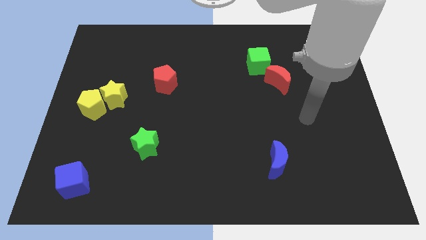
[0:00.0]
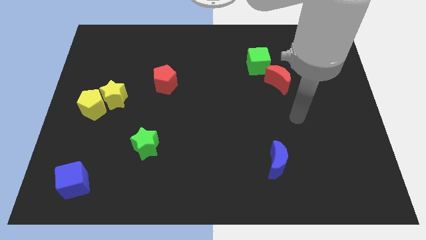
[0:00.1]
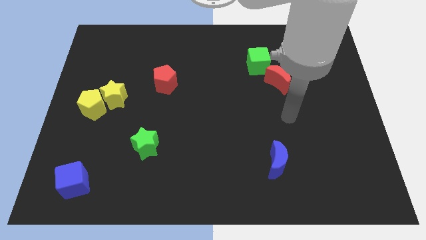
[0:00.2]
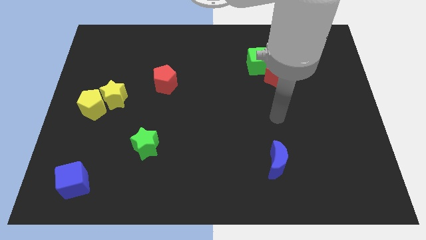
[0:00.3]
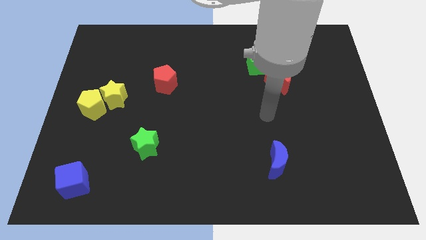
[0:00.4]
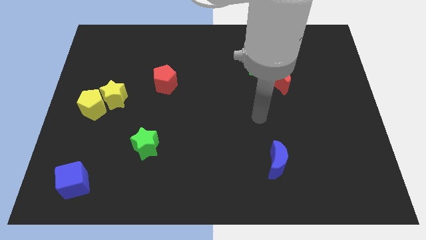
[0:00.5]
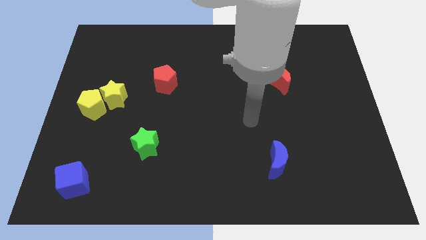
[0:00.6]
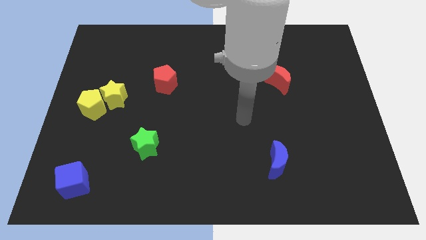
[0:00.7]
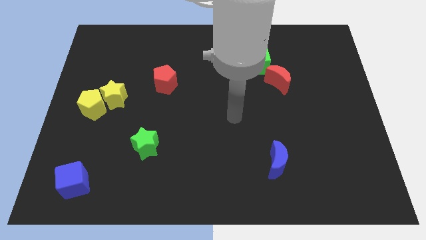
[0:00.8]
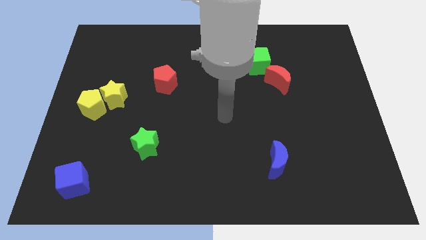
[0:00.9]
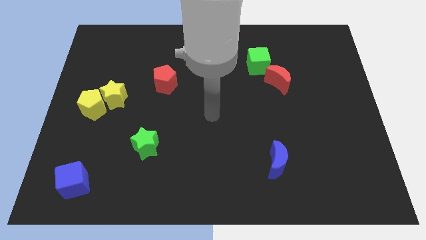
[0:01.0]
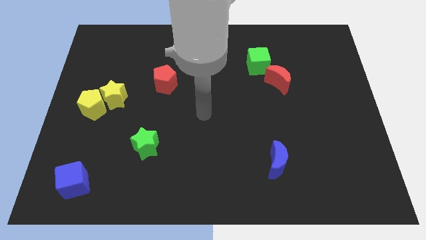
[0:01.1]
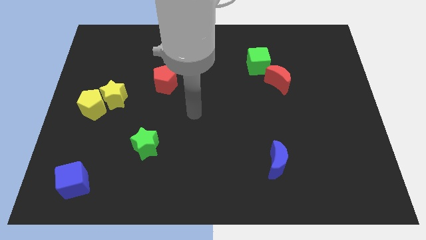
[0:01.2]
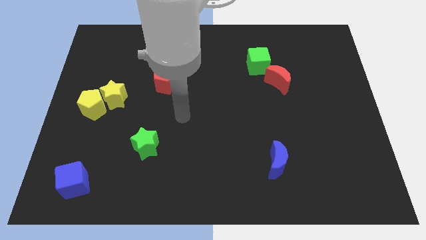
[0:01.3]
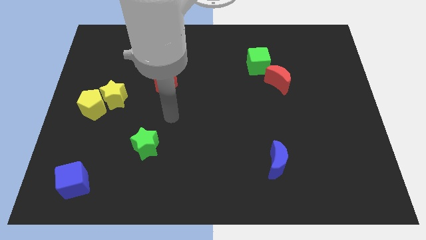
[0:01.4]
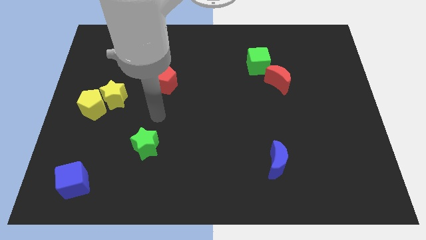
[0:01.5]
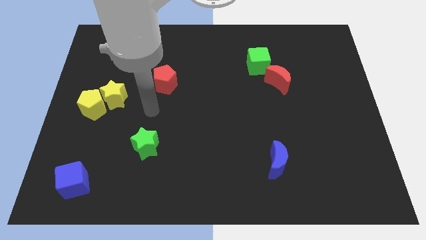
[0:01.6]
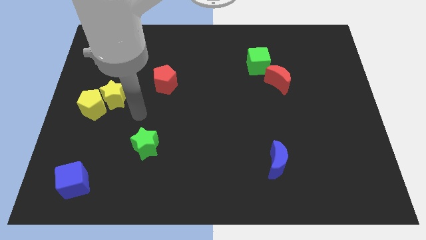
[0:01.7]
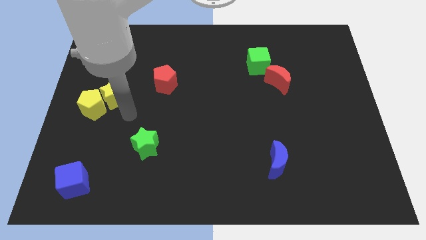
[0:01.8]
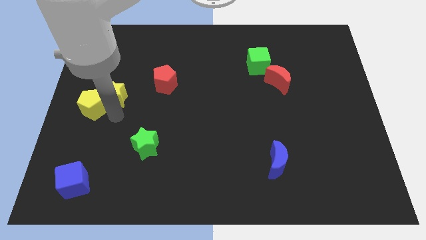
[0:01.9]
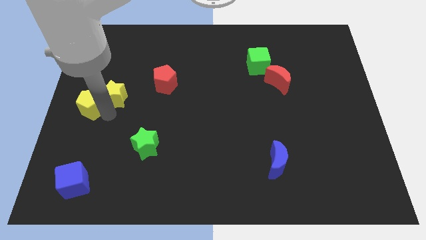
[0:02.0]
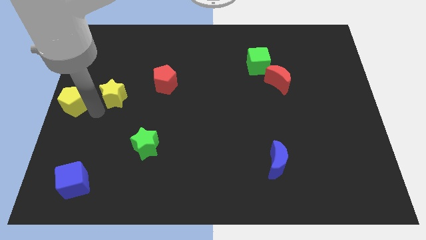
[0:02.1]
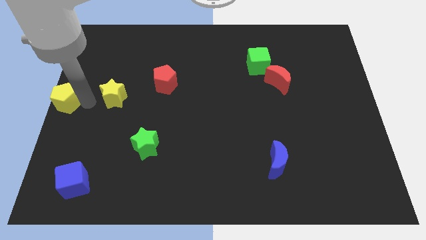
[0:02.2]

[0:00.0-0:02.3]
pull the yellow star apart from the yellow pentagon

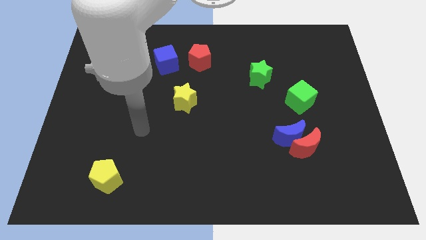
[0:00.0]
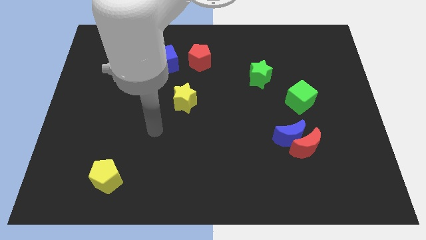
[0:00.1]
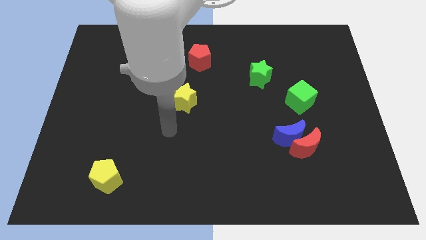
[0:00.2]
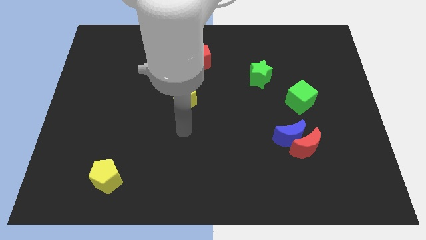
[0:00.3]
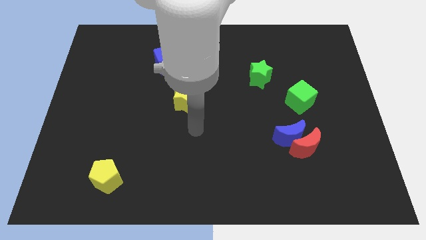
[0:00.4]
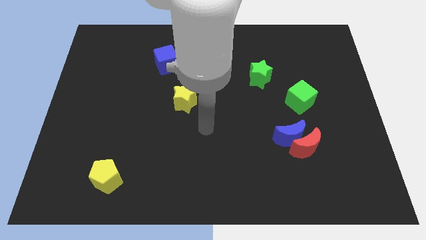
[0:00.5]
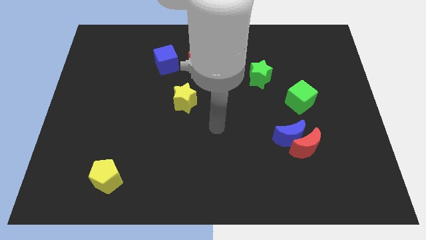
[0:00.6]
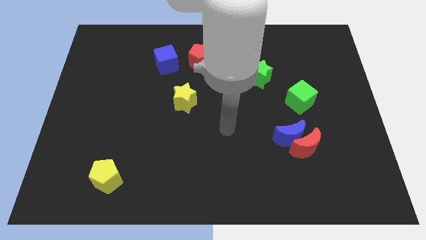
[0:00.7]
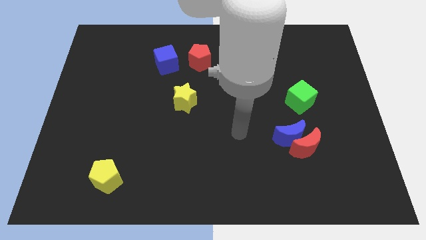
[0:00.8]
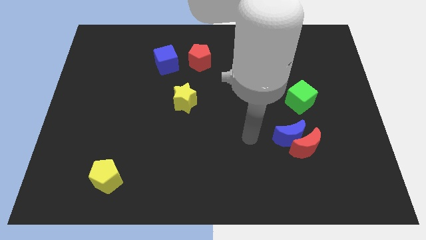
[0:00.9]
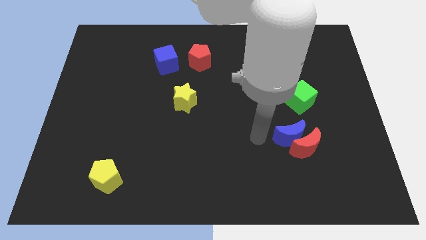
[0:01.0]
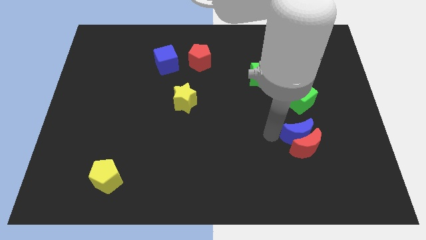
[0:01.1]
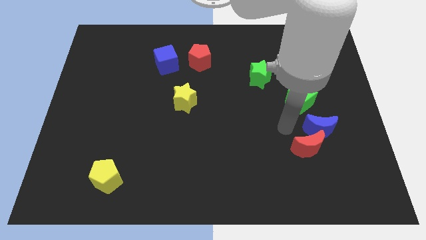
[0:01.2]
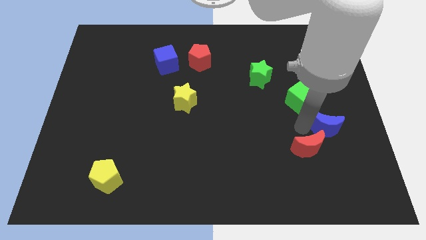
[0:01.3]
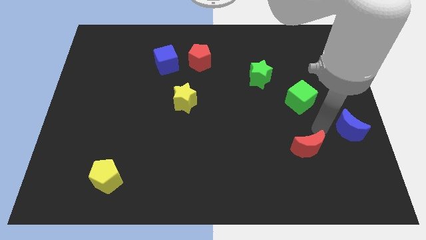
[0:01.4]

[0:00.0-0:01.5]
separate the red moon from the blue moon

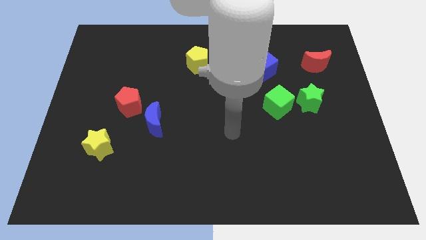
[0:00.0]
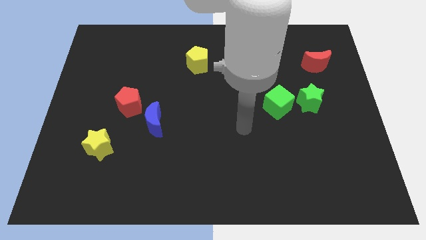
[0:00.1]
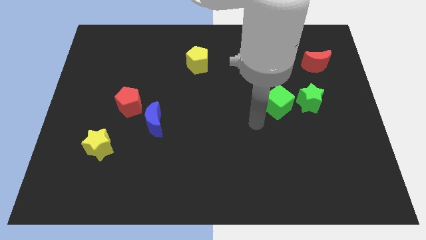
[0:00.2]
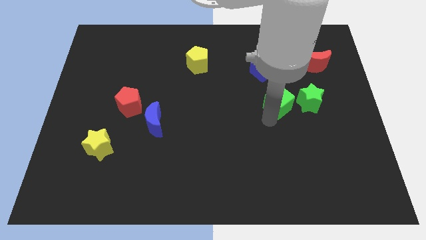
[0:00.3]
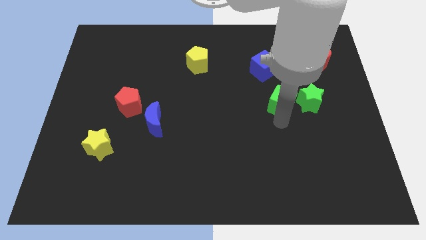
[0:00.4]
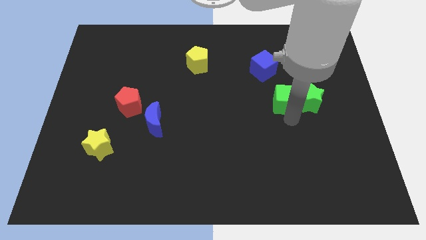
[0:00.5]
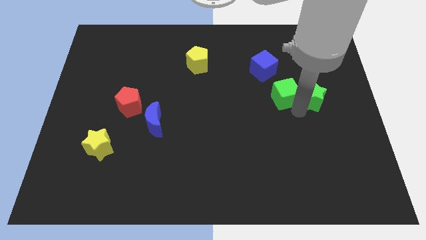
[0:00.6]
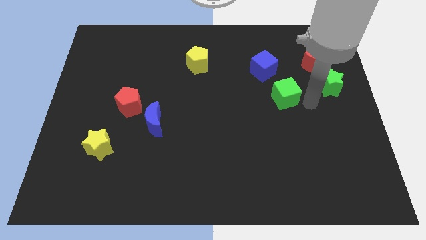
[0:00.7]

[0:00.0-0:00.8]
separate the green cube from the green star

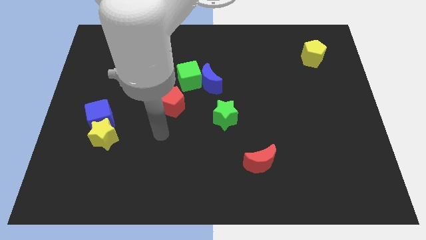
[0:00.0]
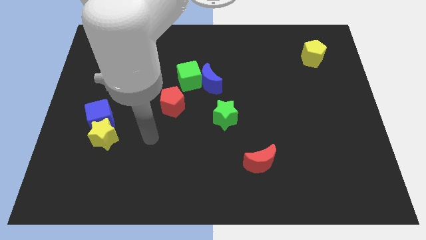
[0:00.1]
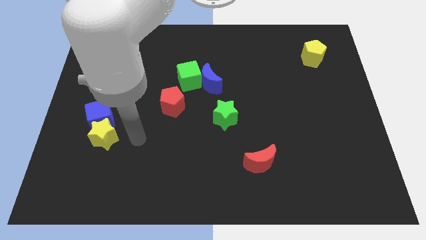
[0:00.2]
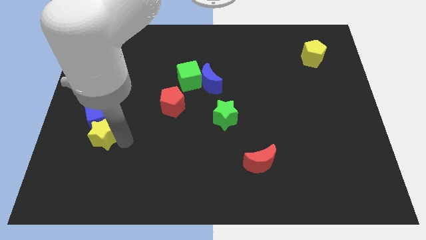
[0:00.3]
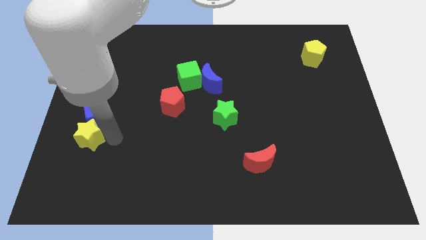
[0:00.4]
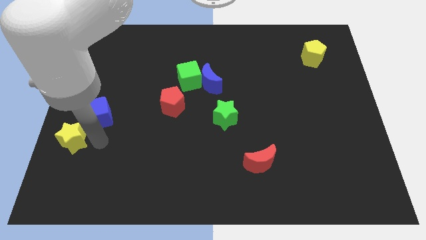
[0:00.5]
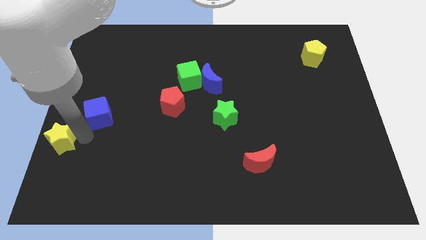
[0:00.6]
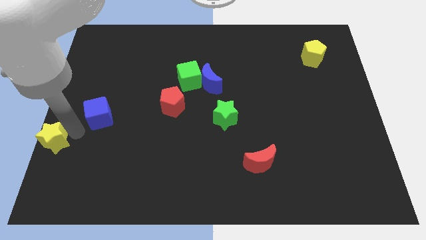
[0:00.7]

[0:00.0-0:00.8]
move the blue cube away from the yellow star

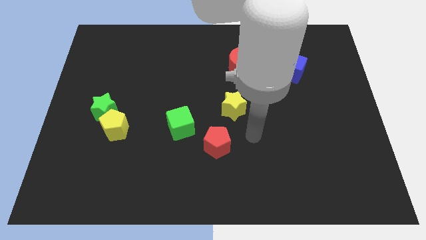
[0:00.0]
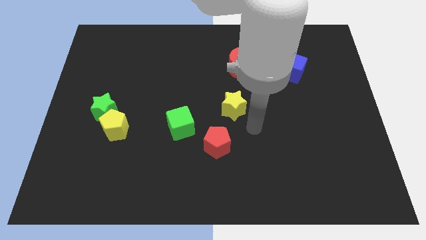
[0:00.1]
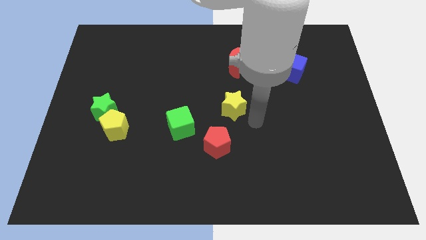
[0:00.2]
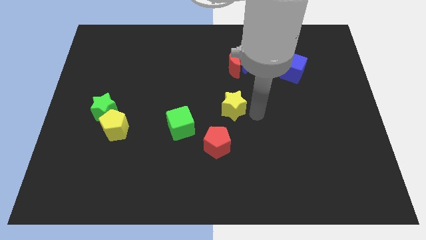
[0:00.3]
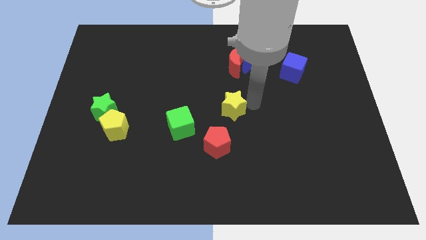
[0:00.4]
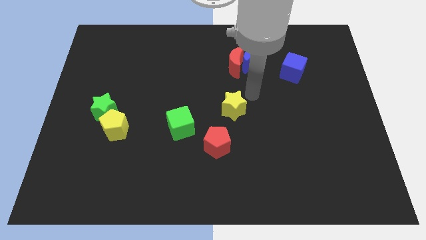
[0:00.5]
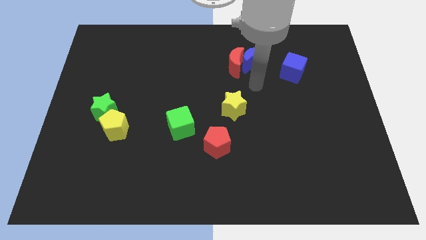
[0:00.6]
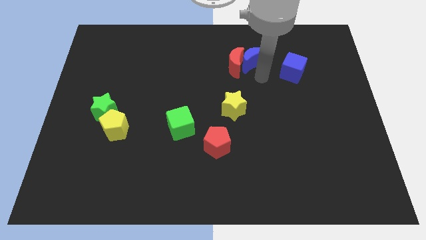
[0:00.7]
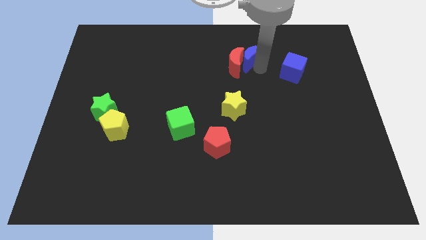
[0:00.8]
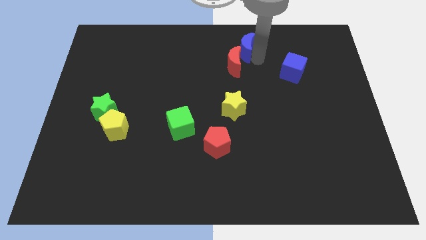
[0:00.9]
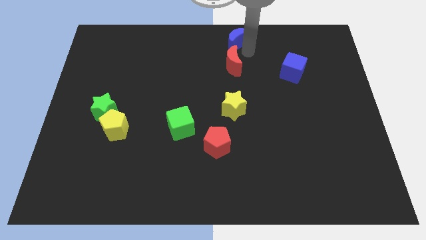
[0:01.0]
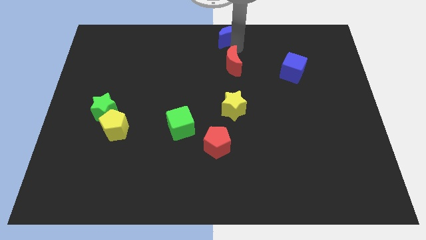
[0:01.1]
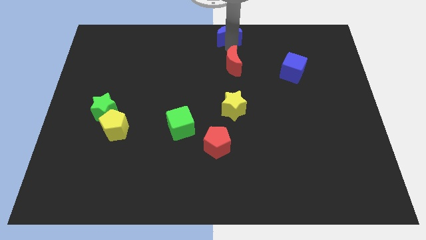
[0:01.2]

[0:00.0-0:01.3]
pull the red moon apart from the blue moon

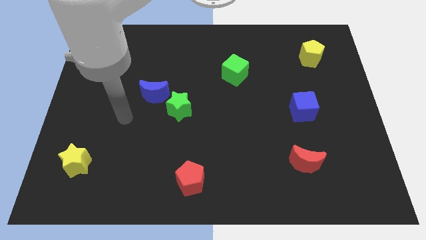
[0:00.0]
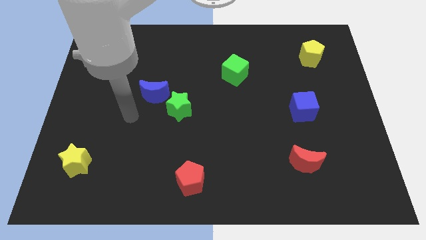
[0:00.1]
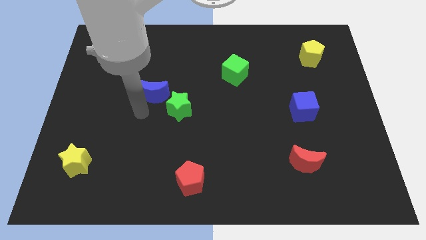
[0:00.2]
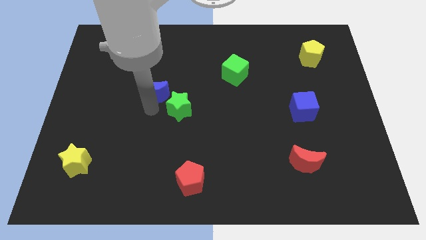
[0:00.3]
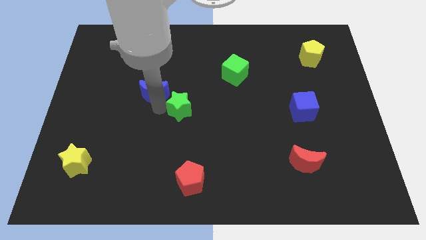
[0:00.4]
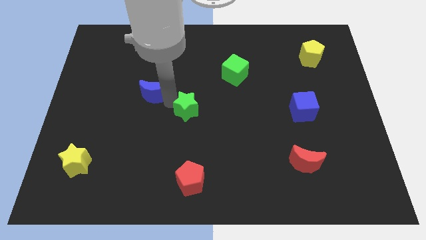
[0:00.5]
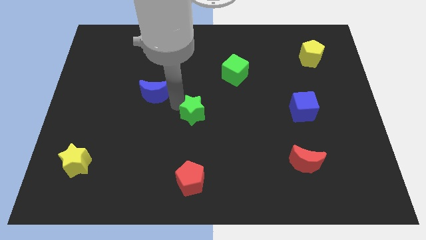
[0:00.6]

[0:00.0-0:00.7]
pull the blue moon apart from the green star

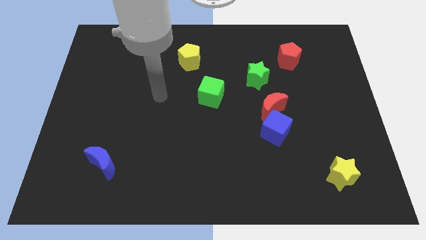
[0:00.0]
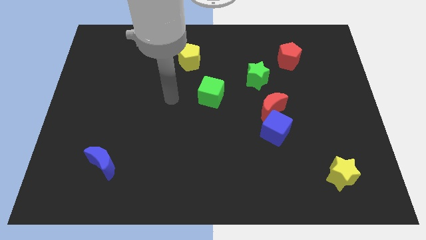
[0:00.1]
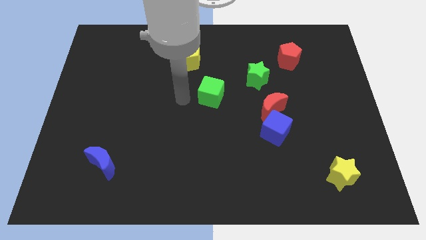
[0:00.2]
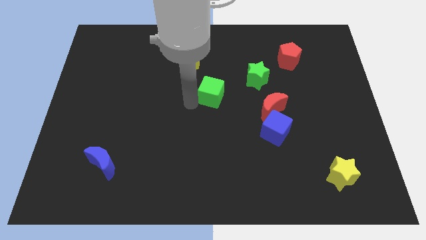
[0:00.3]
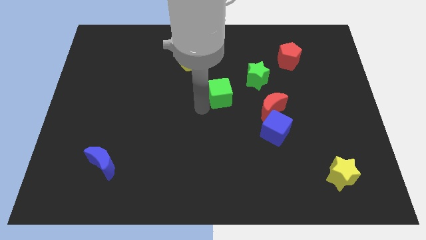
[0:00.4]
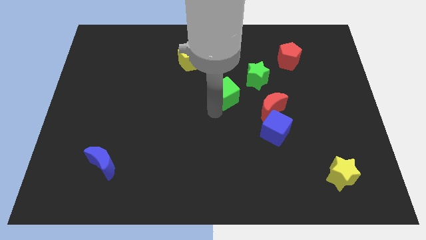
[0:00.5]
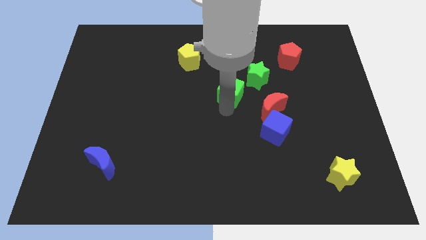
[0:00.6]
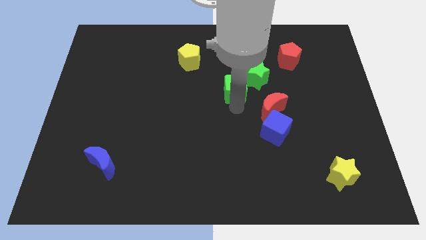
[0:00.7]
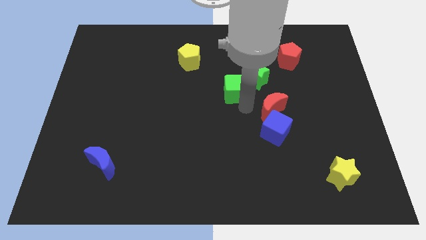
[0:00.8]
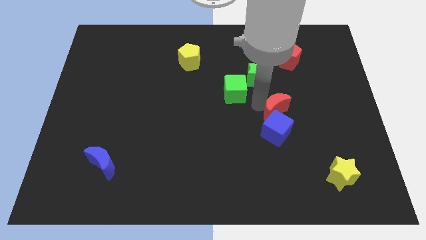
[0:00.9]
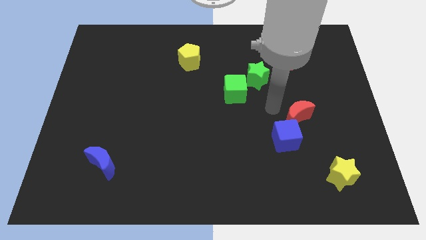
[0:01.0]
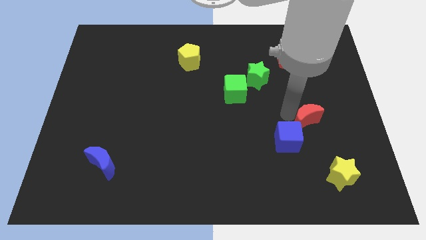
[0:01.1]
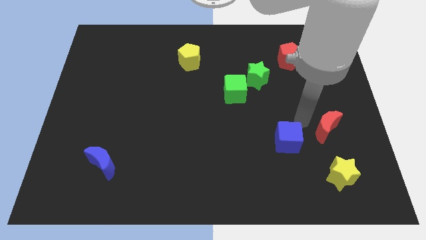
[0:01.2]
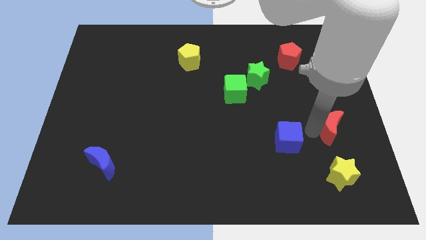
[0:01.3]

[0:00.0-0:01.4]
pull the blue cube apart from the red moon

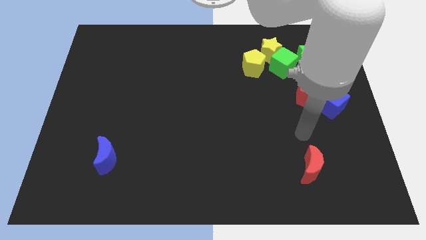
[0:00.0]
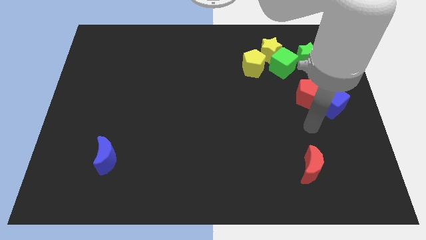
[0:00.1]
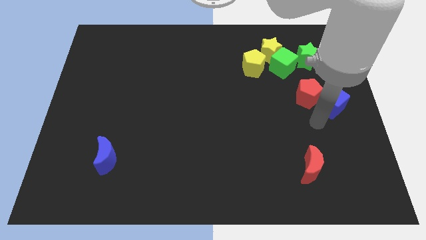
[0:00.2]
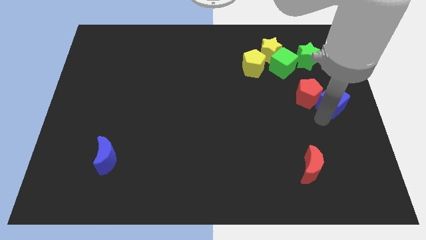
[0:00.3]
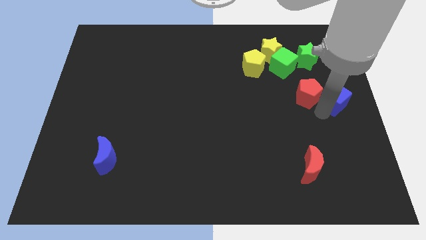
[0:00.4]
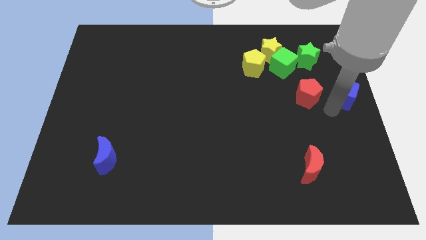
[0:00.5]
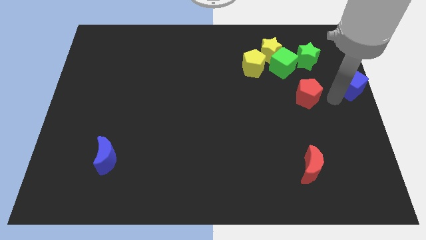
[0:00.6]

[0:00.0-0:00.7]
move the red pentagon away from the blue cube
